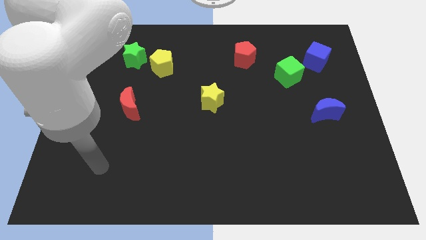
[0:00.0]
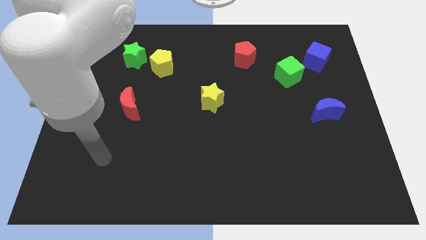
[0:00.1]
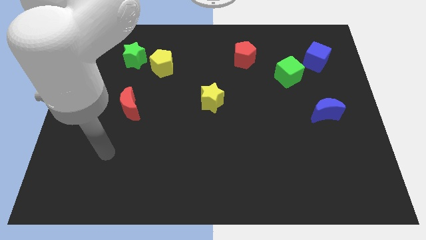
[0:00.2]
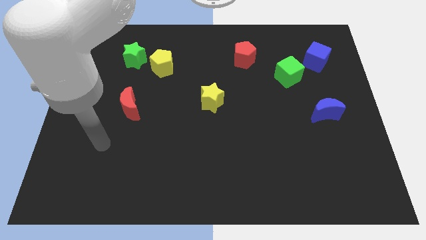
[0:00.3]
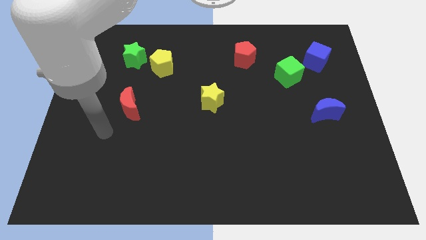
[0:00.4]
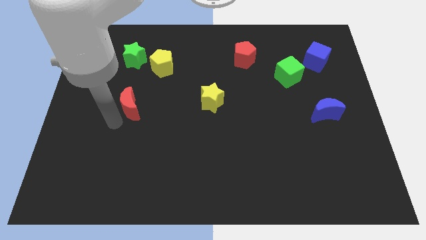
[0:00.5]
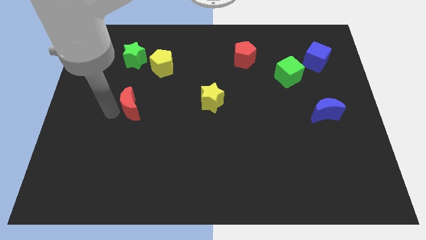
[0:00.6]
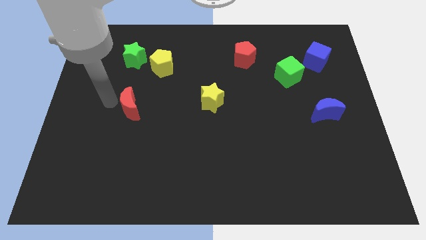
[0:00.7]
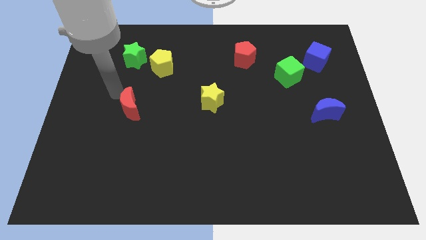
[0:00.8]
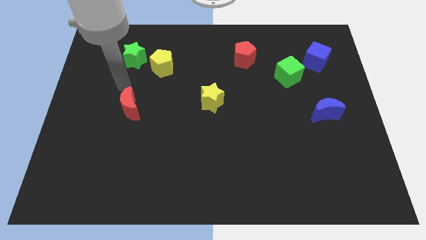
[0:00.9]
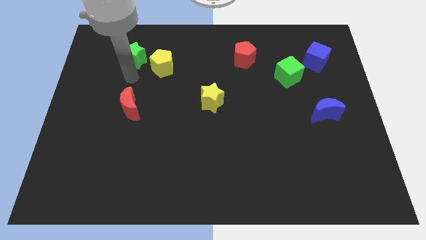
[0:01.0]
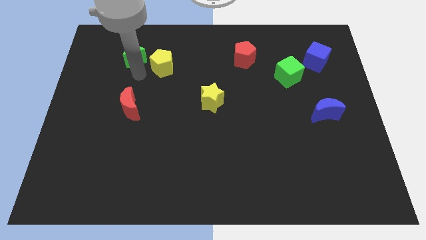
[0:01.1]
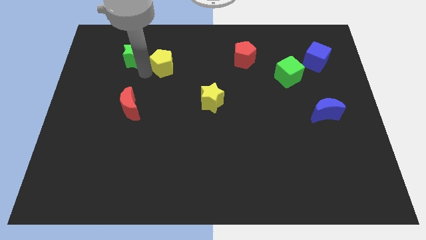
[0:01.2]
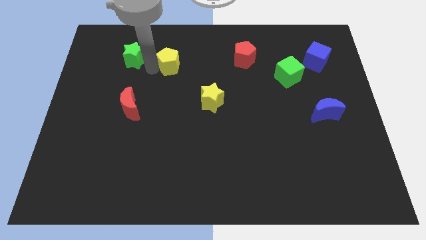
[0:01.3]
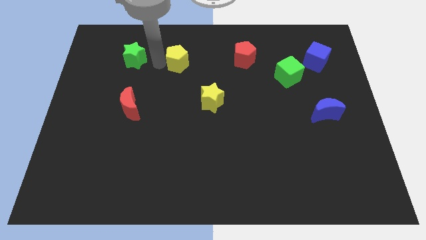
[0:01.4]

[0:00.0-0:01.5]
pull the green star apart from the yellow pentagon

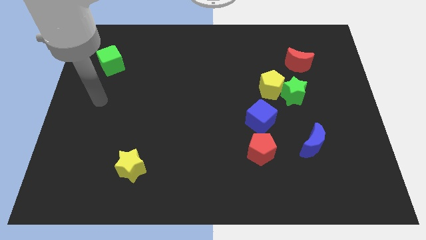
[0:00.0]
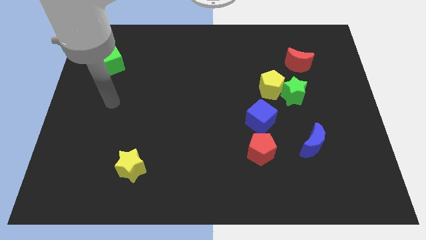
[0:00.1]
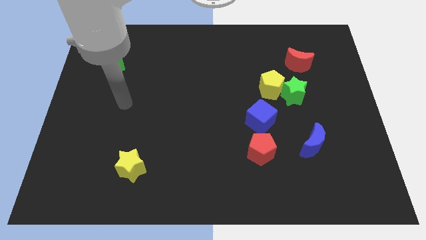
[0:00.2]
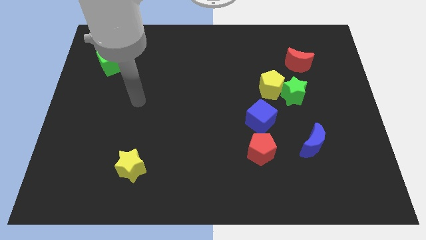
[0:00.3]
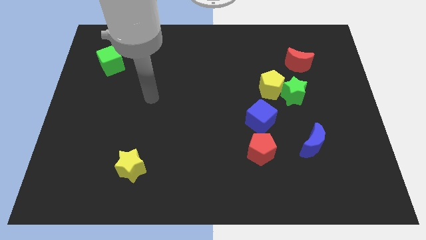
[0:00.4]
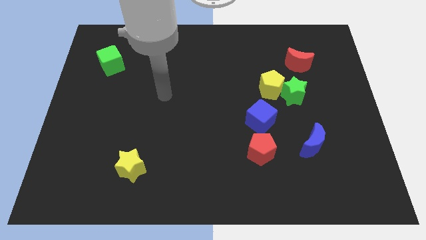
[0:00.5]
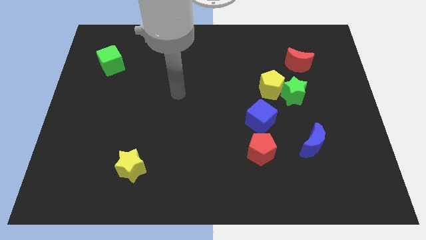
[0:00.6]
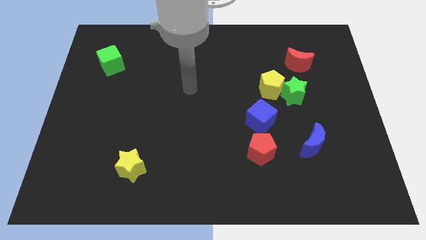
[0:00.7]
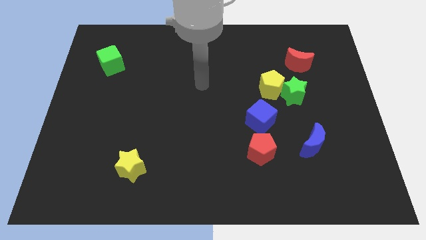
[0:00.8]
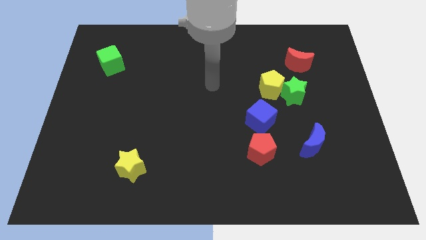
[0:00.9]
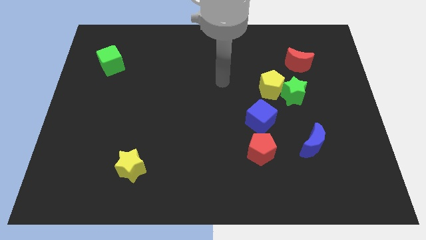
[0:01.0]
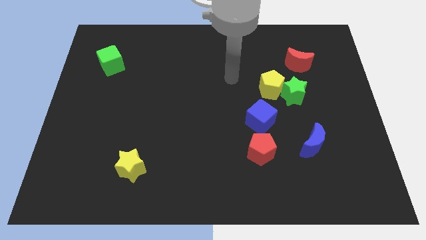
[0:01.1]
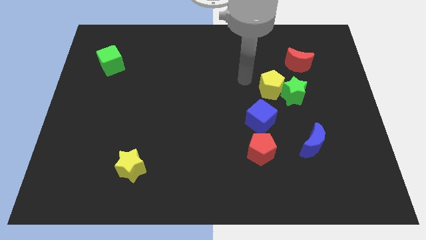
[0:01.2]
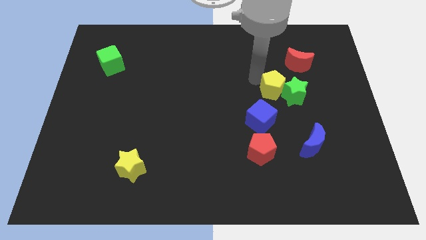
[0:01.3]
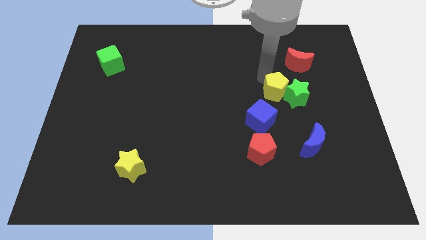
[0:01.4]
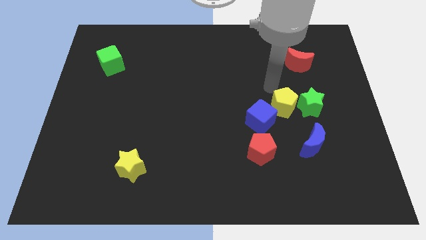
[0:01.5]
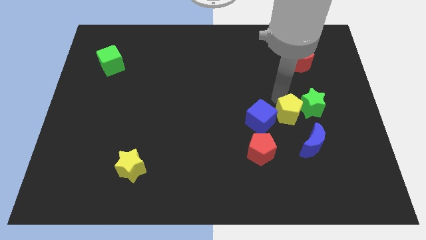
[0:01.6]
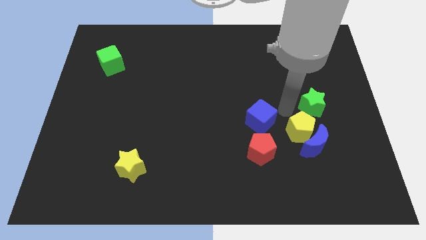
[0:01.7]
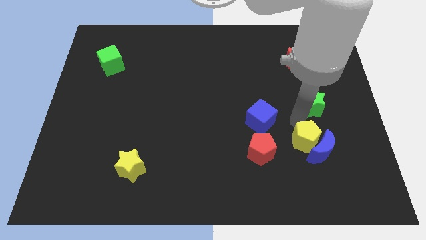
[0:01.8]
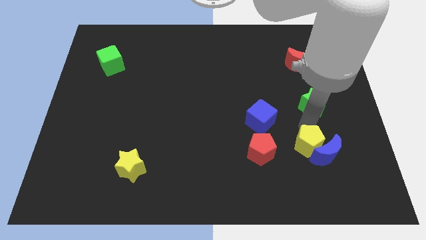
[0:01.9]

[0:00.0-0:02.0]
move the green star away from the yellow pentagon

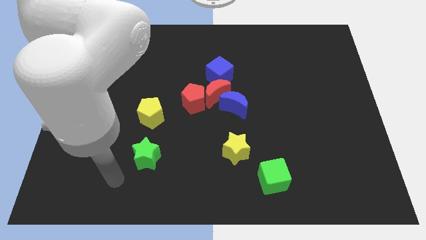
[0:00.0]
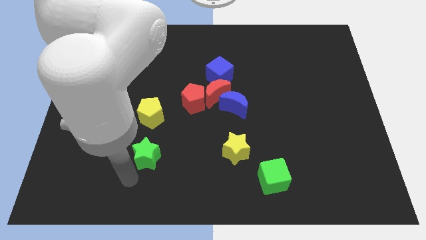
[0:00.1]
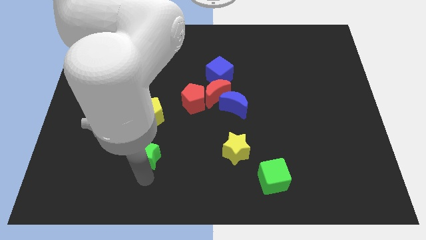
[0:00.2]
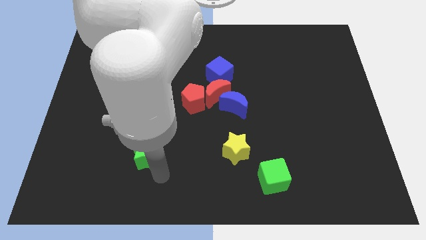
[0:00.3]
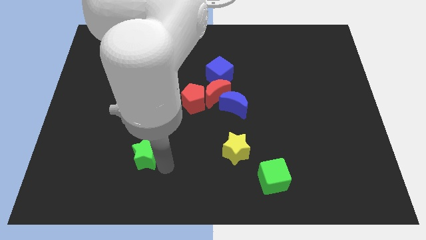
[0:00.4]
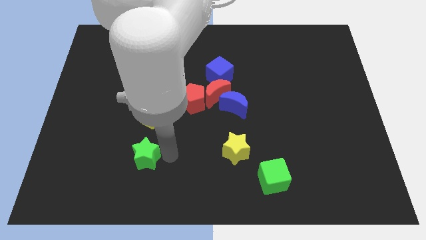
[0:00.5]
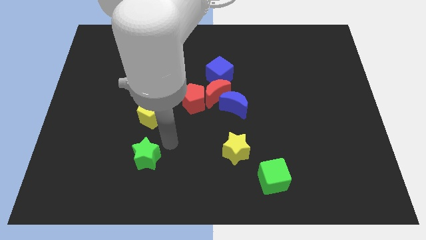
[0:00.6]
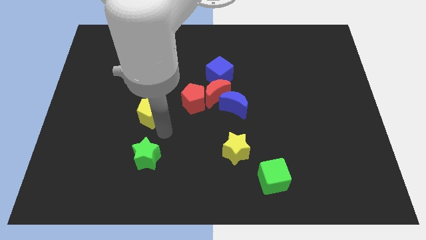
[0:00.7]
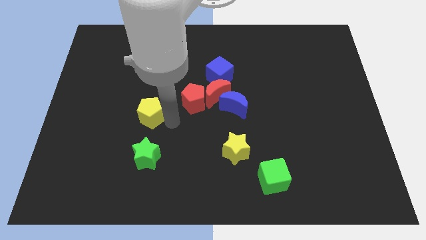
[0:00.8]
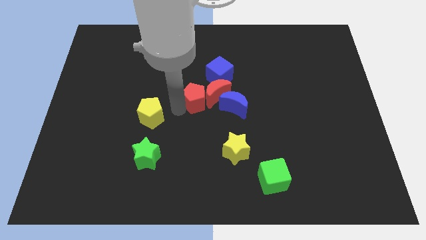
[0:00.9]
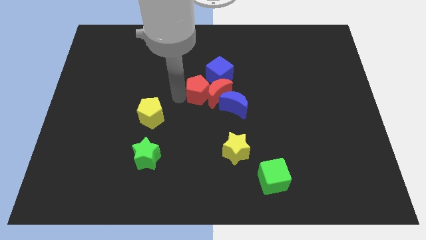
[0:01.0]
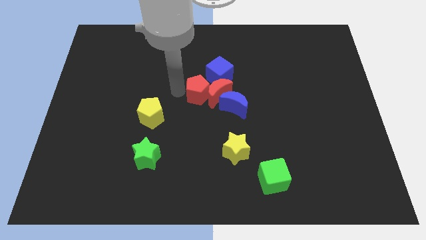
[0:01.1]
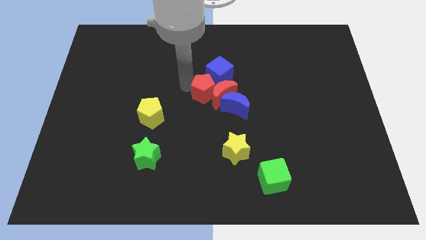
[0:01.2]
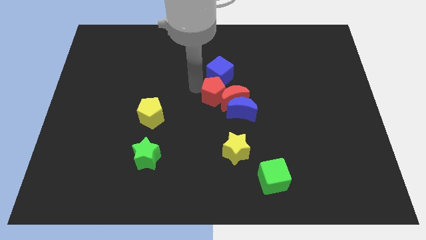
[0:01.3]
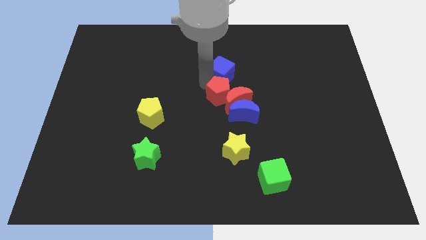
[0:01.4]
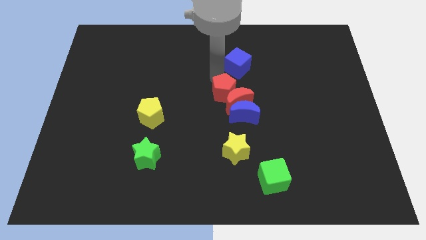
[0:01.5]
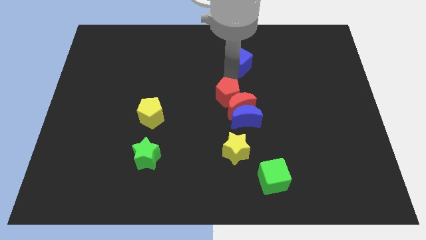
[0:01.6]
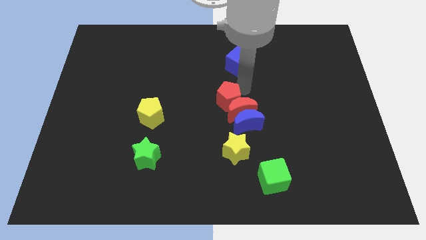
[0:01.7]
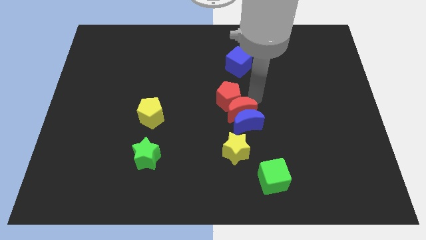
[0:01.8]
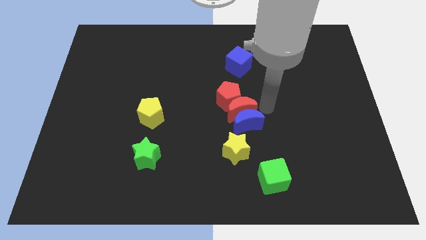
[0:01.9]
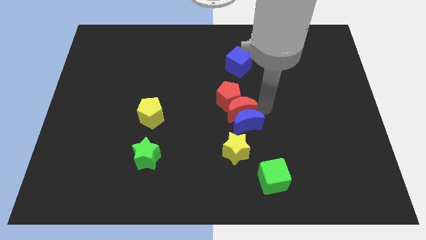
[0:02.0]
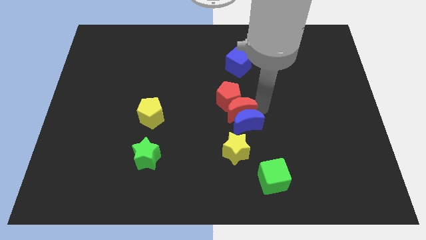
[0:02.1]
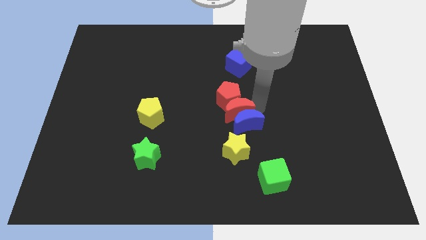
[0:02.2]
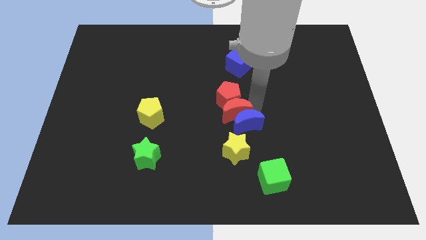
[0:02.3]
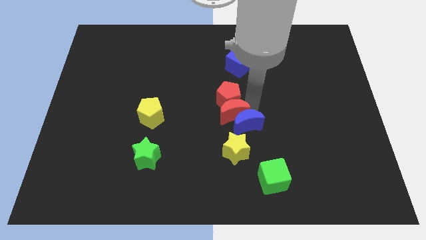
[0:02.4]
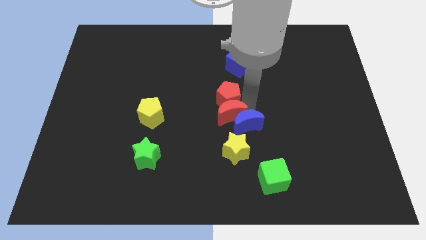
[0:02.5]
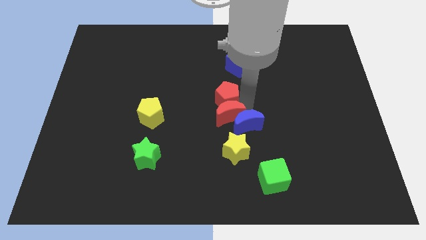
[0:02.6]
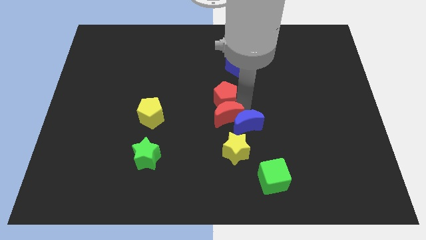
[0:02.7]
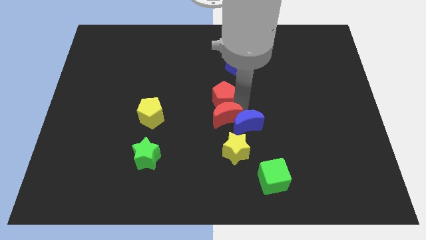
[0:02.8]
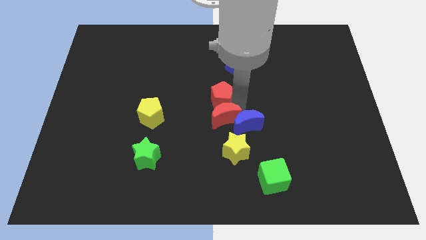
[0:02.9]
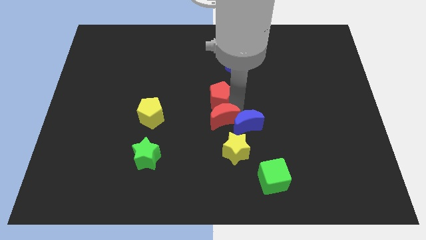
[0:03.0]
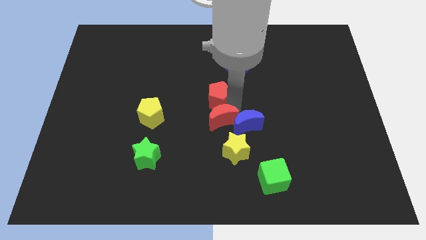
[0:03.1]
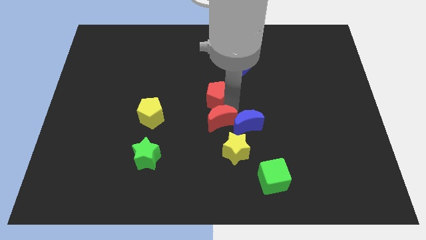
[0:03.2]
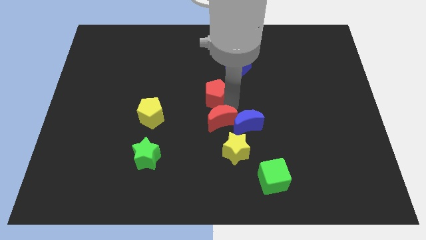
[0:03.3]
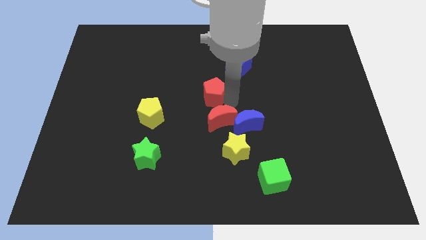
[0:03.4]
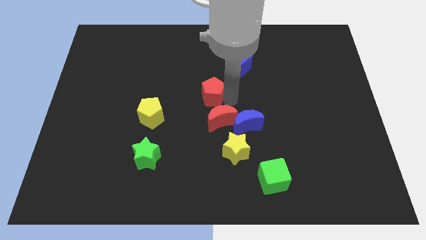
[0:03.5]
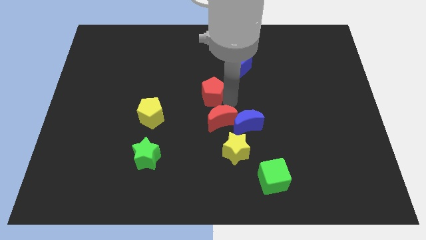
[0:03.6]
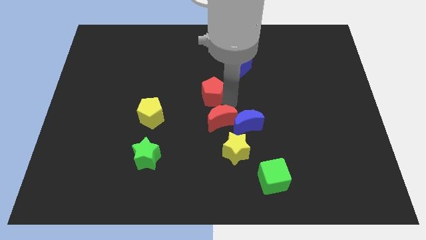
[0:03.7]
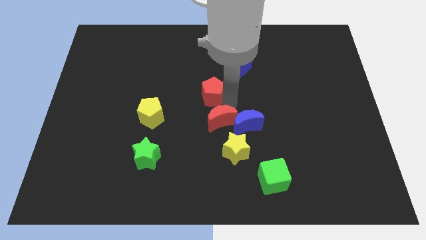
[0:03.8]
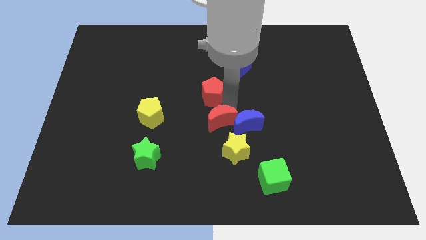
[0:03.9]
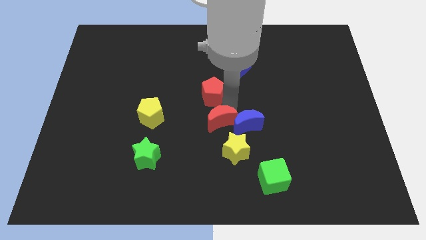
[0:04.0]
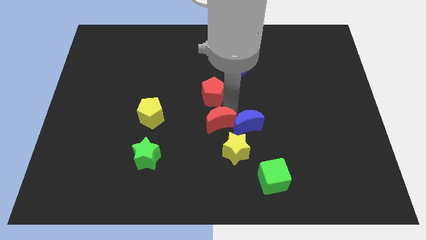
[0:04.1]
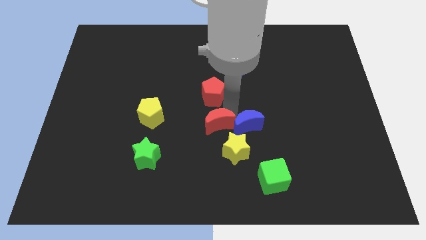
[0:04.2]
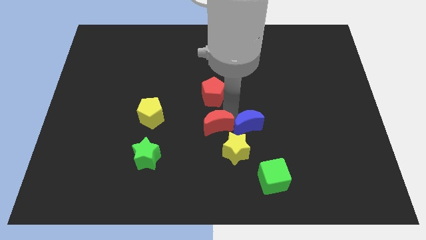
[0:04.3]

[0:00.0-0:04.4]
separate the red moon from the red pentagon, blue moon, and blue cube

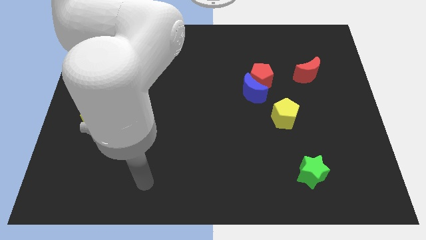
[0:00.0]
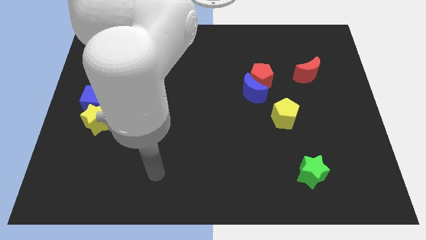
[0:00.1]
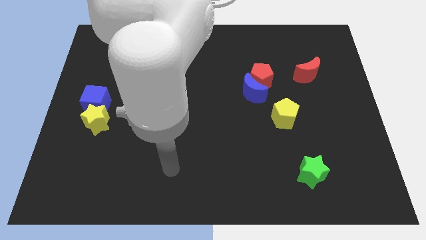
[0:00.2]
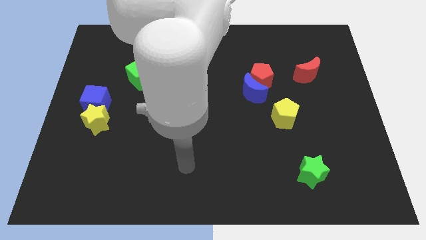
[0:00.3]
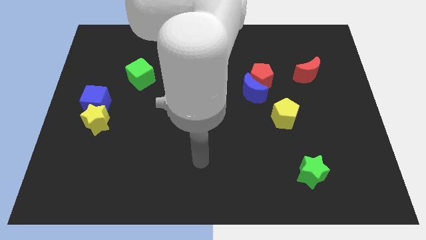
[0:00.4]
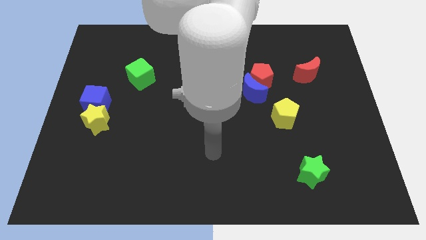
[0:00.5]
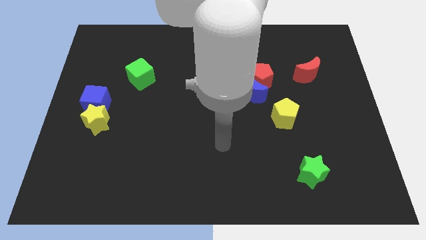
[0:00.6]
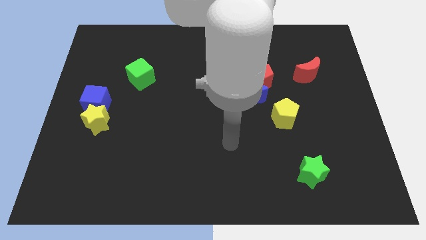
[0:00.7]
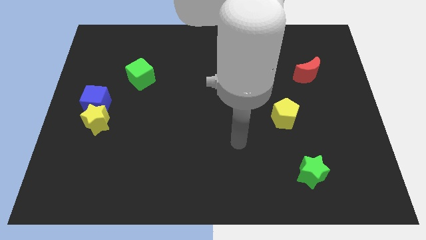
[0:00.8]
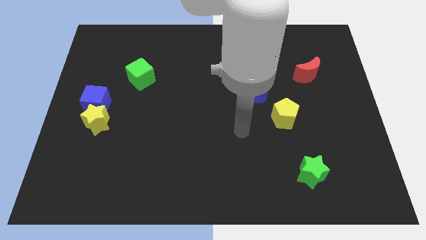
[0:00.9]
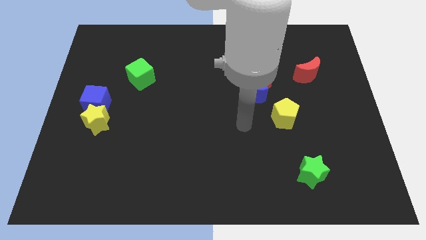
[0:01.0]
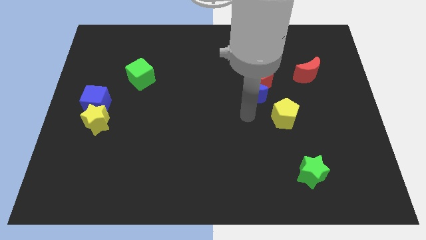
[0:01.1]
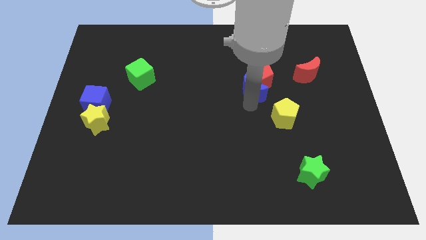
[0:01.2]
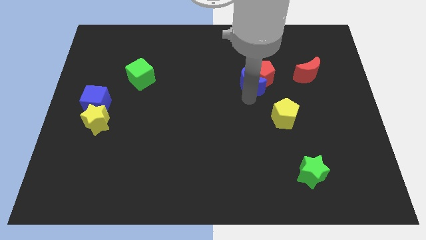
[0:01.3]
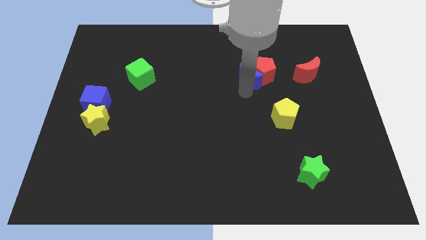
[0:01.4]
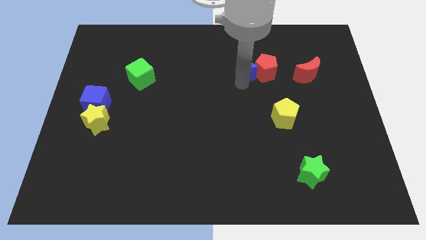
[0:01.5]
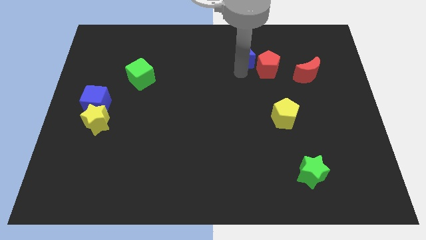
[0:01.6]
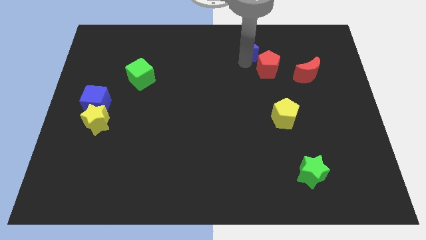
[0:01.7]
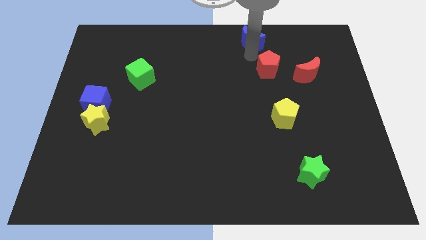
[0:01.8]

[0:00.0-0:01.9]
separate the red pentagon from the blue moon
